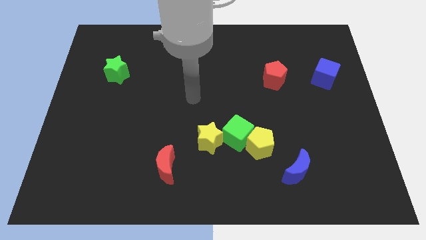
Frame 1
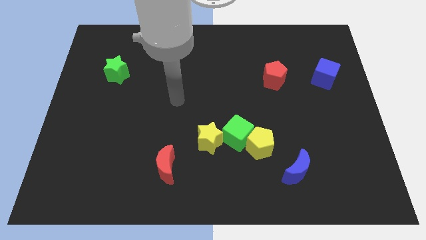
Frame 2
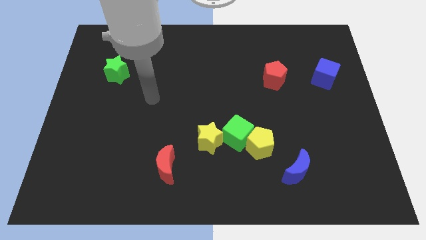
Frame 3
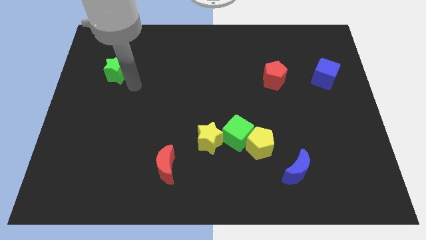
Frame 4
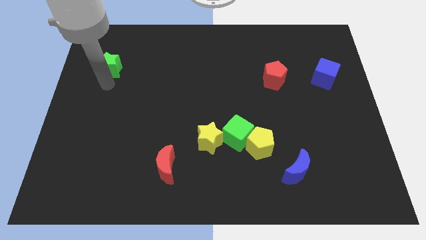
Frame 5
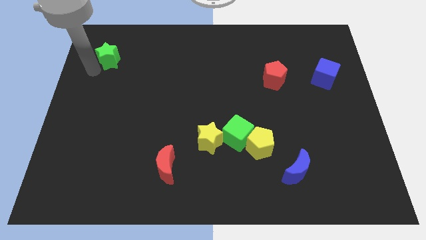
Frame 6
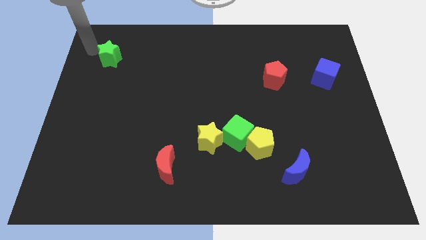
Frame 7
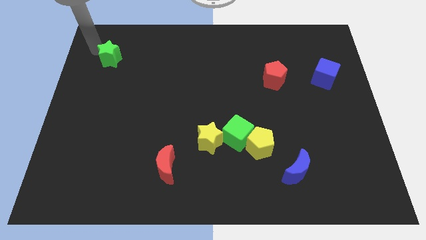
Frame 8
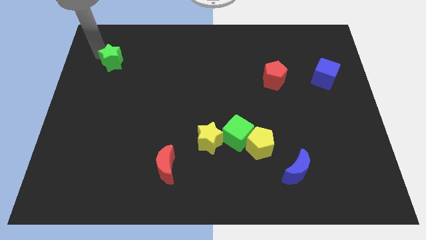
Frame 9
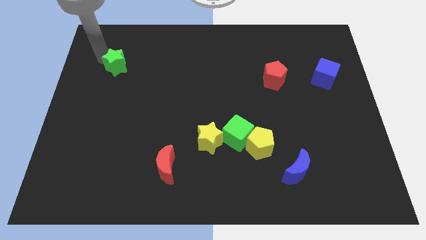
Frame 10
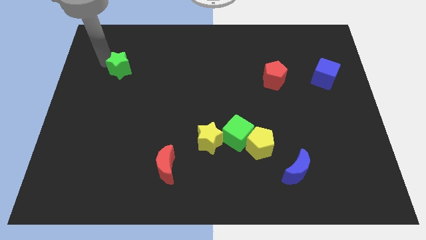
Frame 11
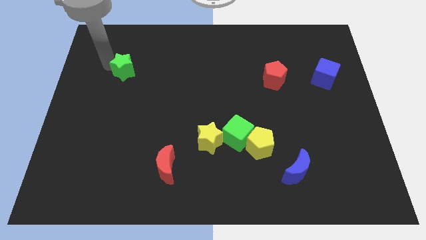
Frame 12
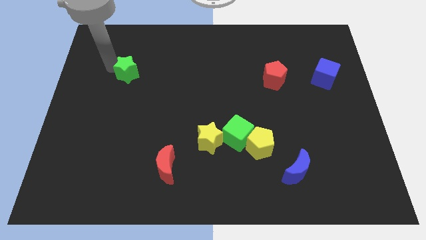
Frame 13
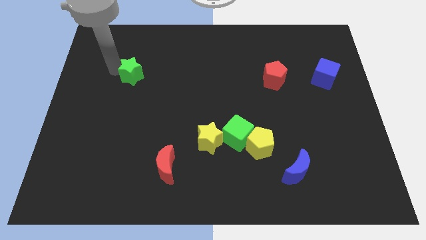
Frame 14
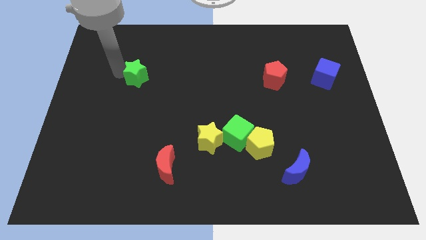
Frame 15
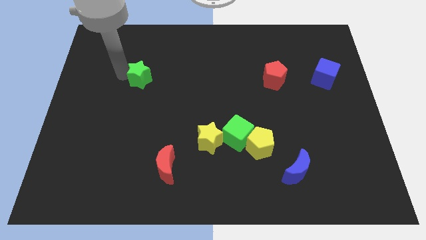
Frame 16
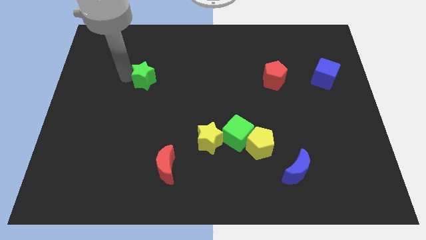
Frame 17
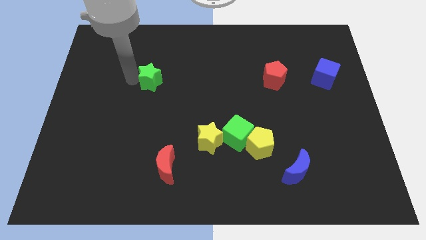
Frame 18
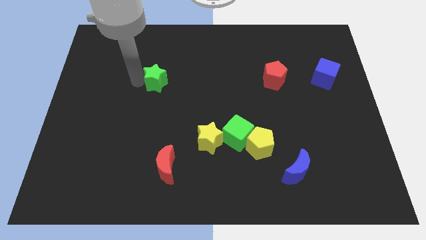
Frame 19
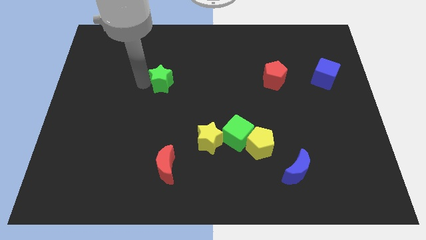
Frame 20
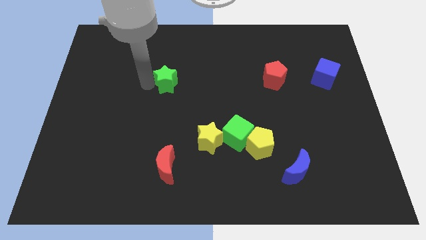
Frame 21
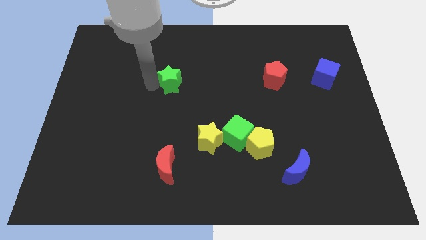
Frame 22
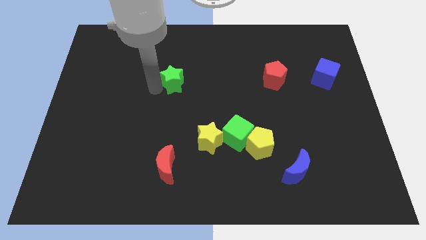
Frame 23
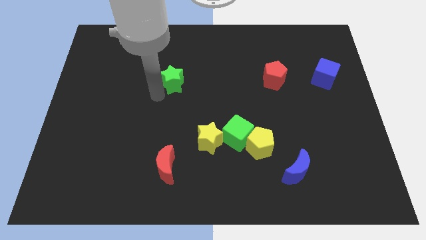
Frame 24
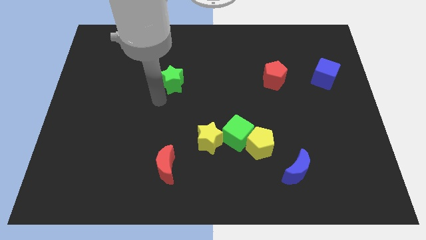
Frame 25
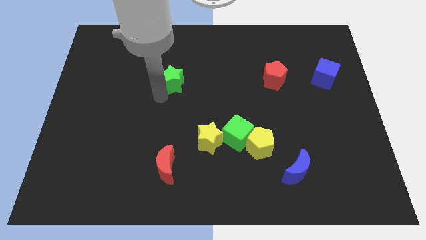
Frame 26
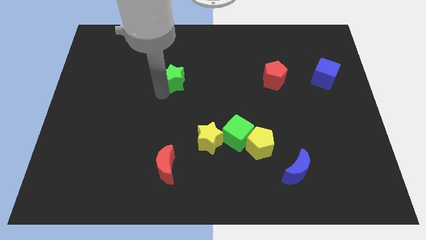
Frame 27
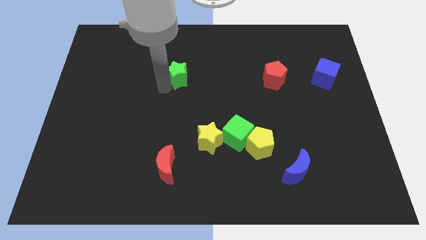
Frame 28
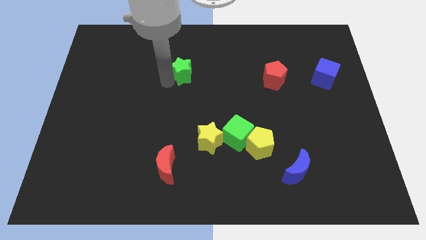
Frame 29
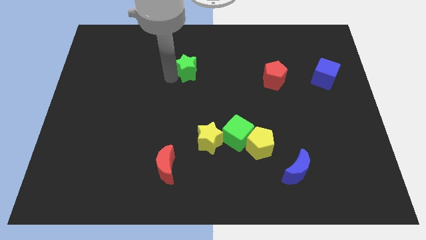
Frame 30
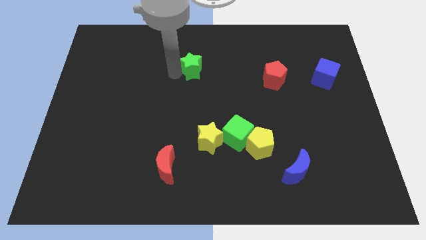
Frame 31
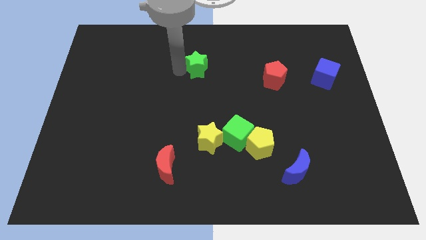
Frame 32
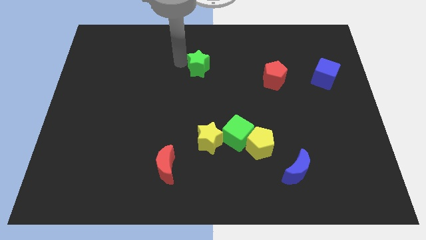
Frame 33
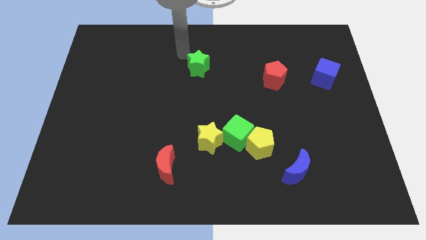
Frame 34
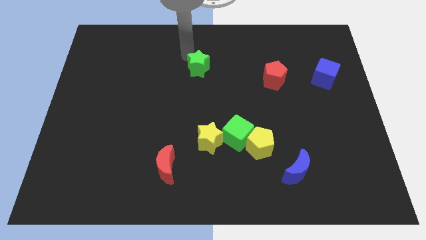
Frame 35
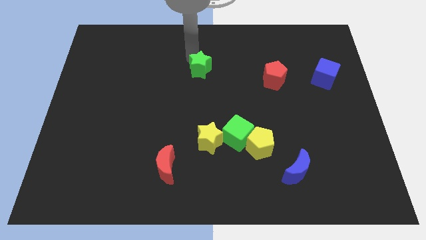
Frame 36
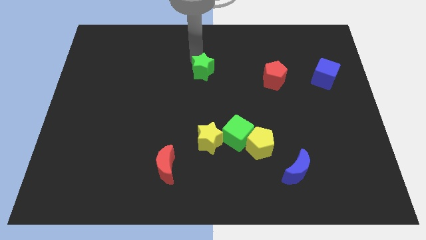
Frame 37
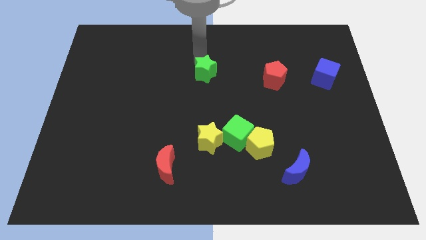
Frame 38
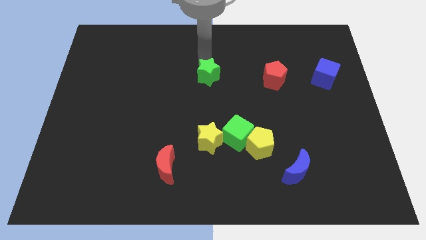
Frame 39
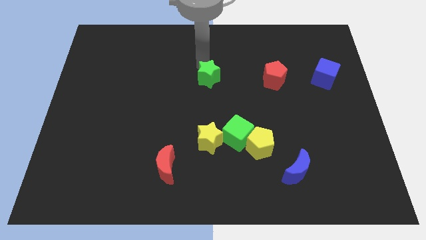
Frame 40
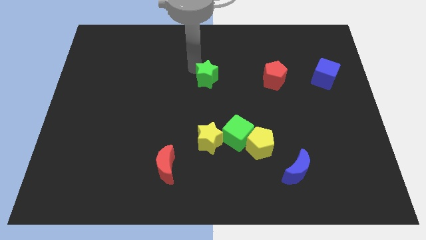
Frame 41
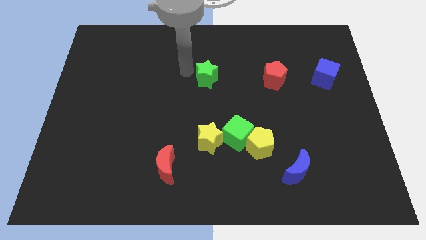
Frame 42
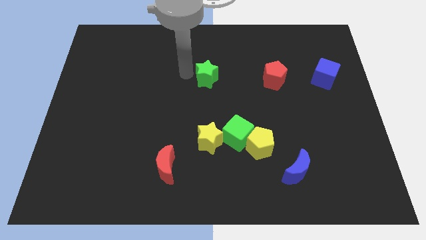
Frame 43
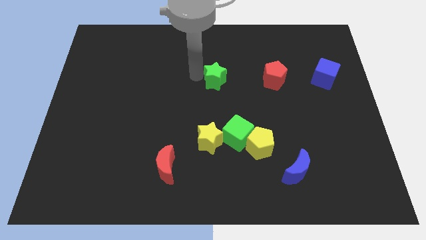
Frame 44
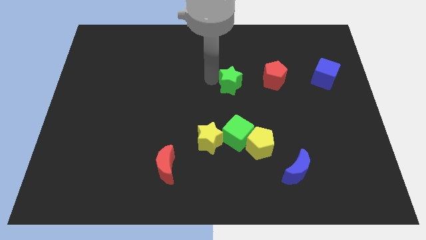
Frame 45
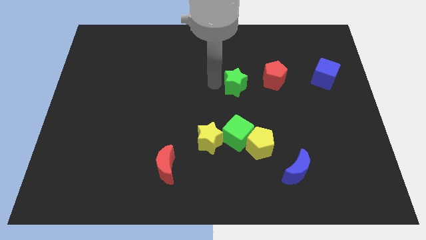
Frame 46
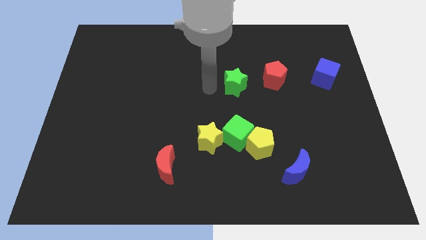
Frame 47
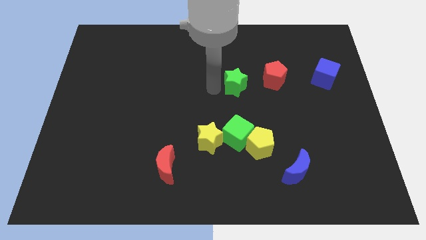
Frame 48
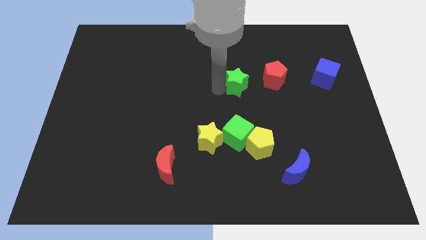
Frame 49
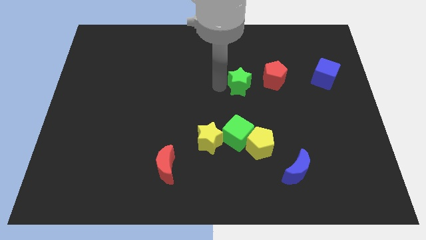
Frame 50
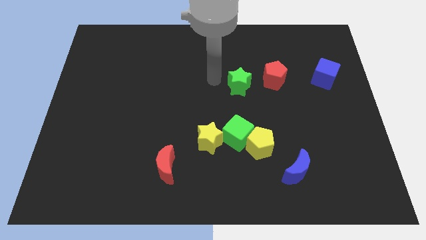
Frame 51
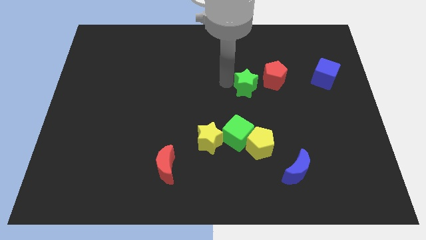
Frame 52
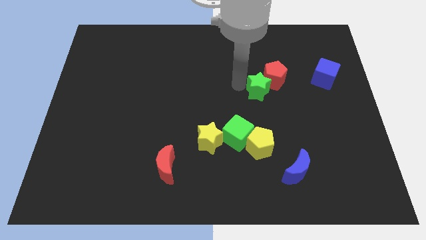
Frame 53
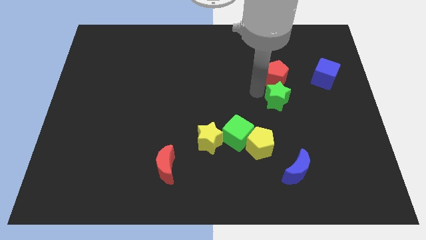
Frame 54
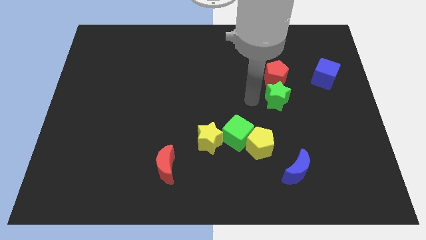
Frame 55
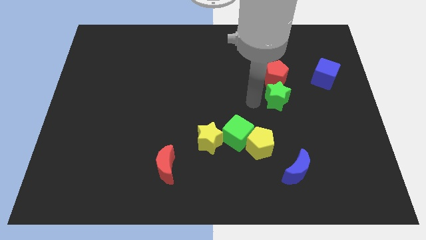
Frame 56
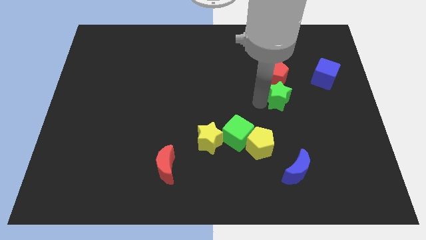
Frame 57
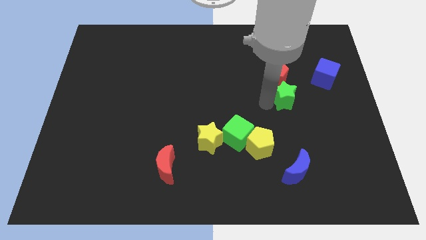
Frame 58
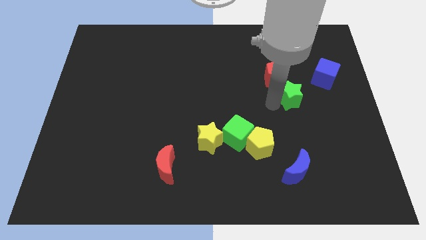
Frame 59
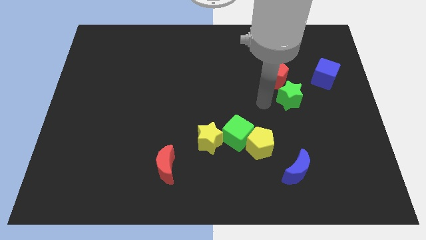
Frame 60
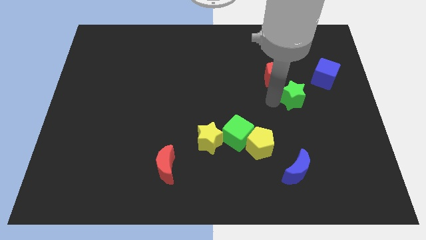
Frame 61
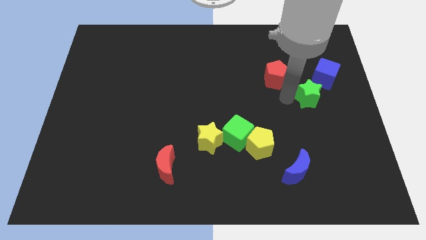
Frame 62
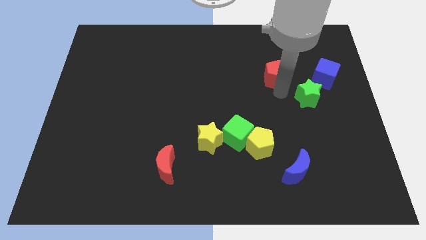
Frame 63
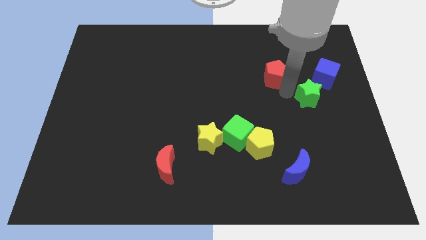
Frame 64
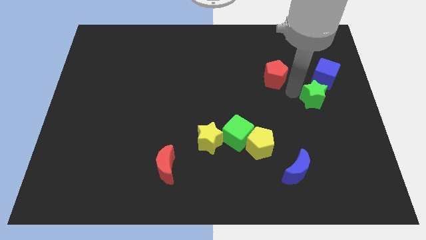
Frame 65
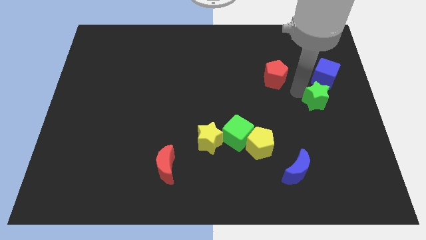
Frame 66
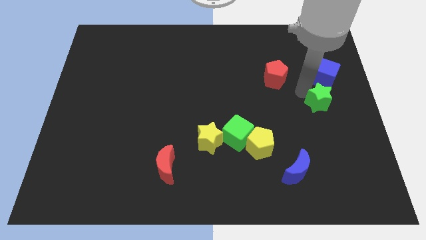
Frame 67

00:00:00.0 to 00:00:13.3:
slide the green star to the center right
